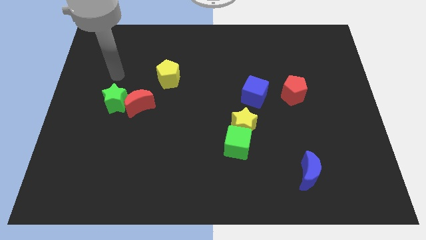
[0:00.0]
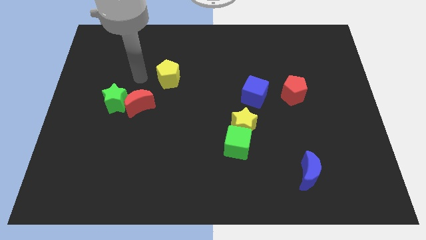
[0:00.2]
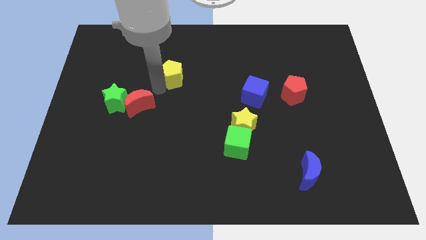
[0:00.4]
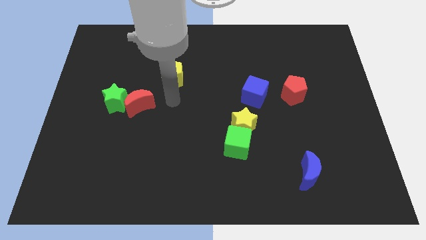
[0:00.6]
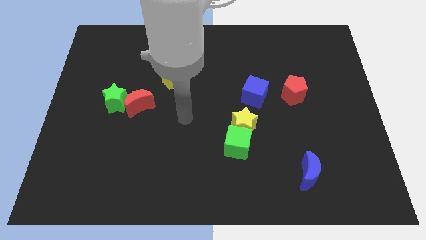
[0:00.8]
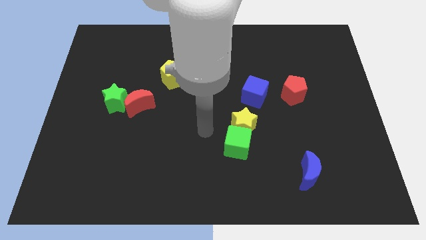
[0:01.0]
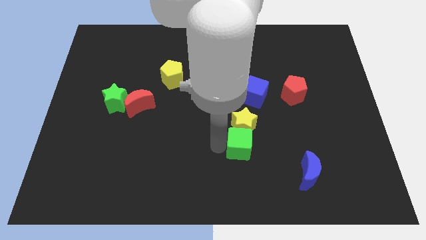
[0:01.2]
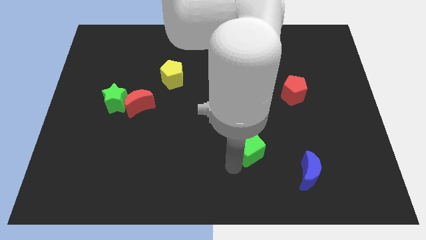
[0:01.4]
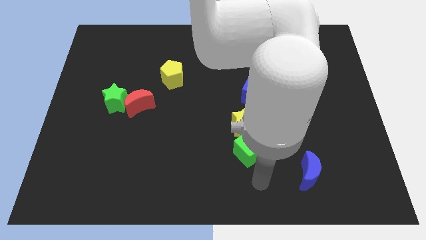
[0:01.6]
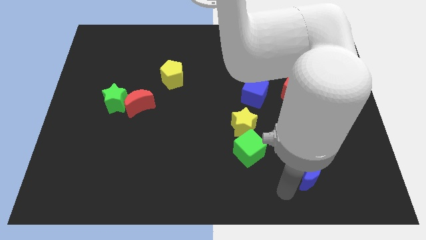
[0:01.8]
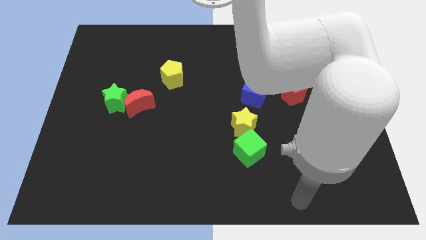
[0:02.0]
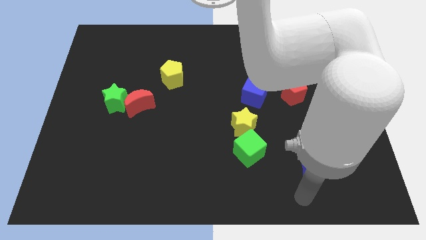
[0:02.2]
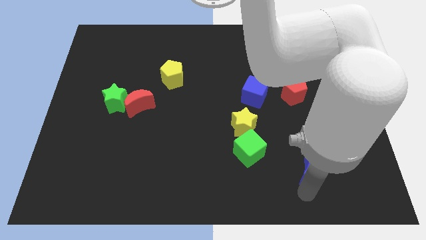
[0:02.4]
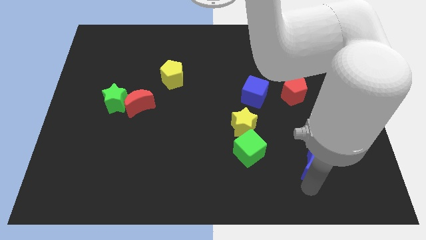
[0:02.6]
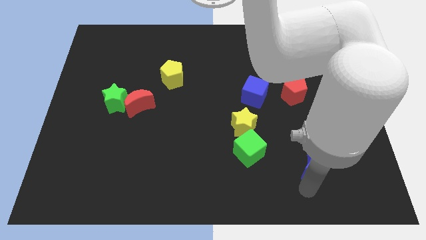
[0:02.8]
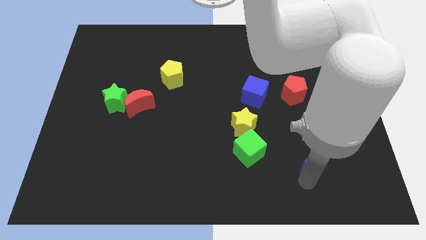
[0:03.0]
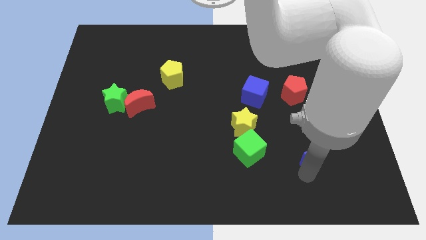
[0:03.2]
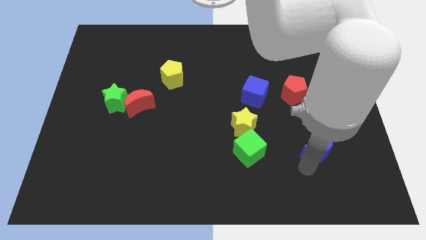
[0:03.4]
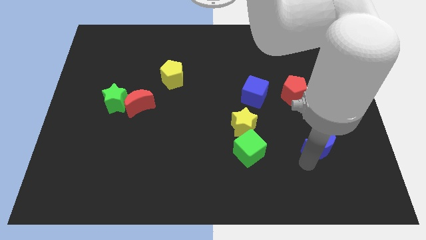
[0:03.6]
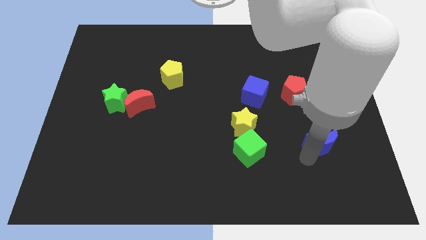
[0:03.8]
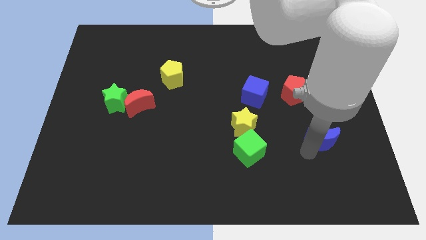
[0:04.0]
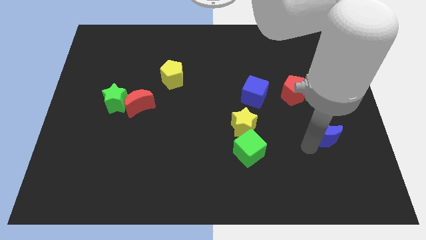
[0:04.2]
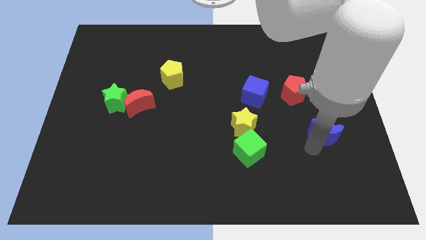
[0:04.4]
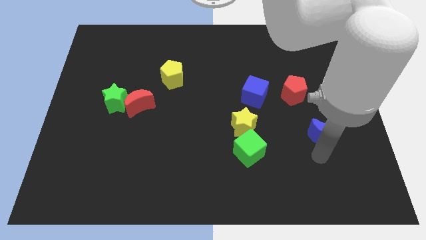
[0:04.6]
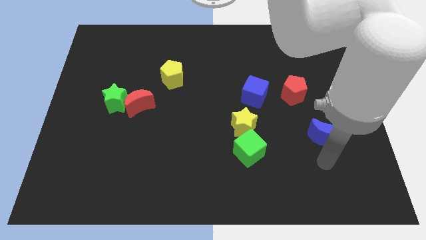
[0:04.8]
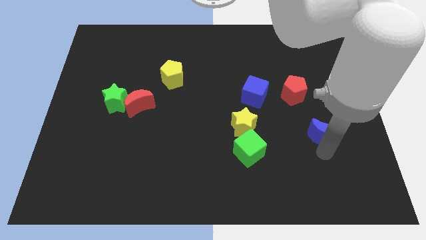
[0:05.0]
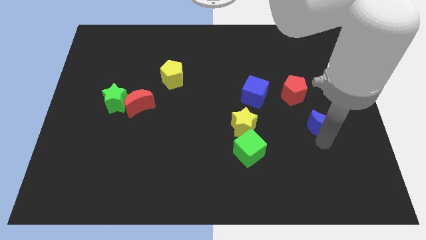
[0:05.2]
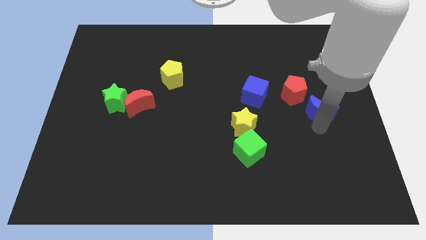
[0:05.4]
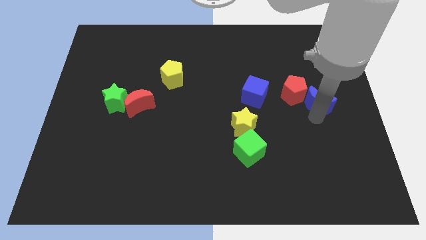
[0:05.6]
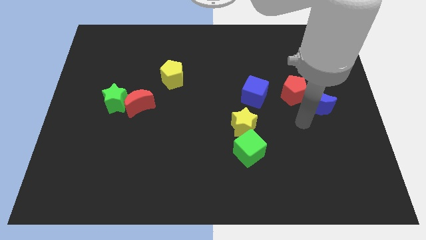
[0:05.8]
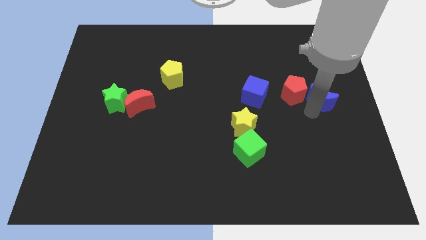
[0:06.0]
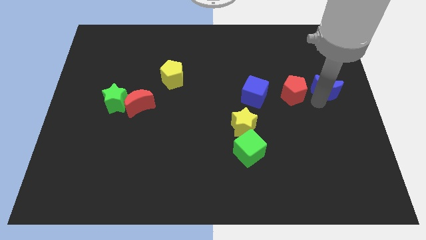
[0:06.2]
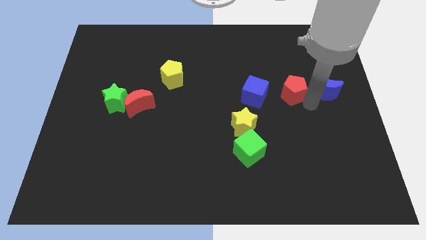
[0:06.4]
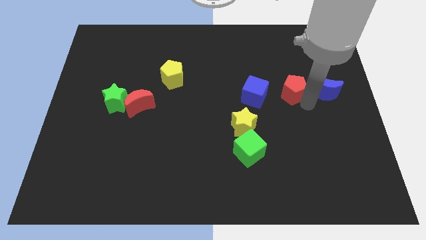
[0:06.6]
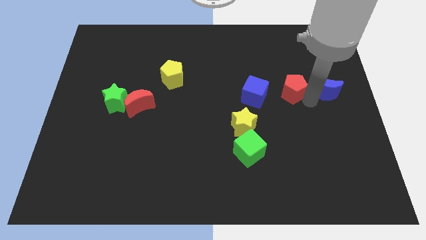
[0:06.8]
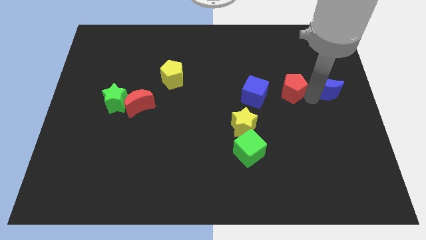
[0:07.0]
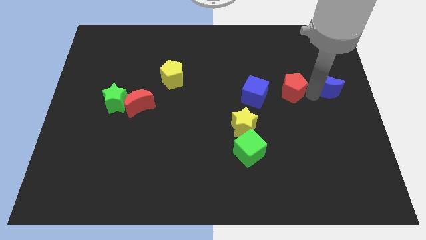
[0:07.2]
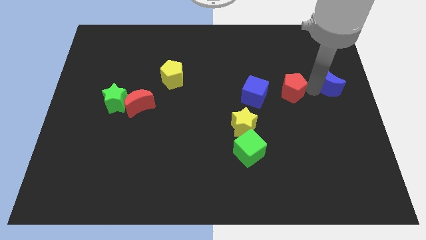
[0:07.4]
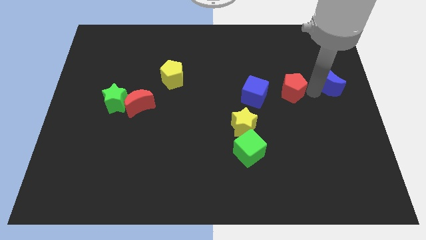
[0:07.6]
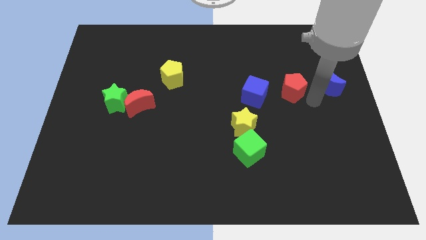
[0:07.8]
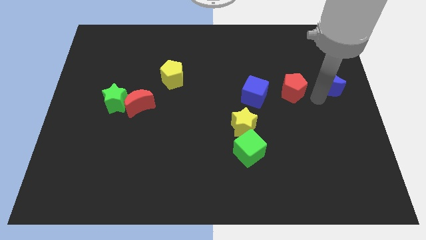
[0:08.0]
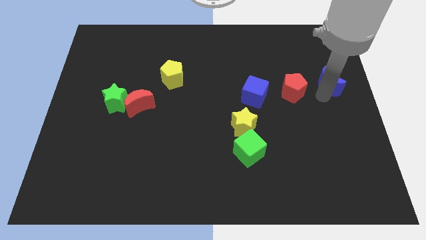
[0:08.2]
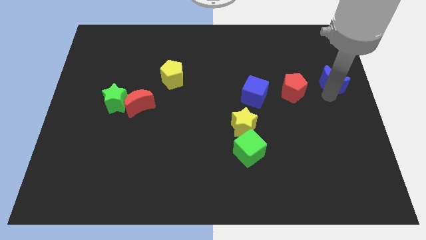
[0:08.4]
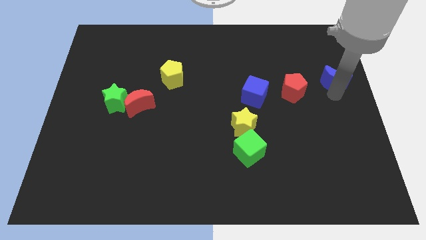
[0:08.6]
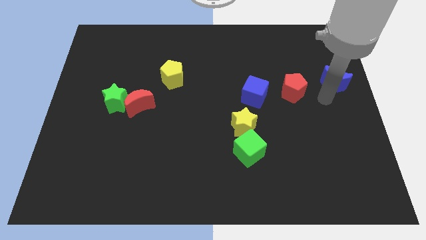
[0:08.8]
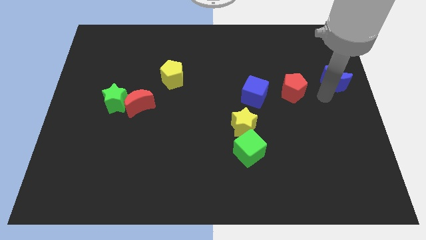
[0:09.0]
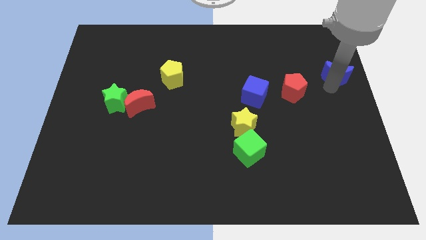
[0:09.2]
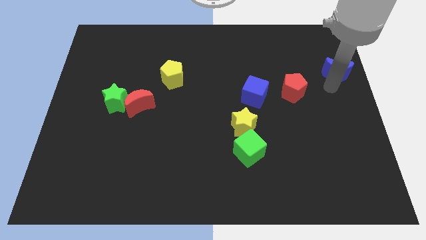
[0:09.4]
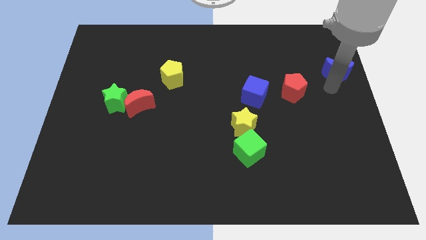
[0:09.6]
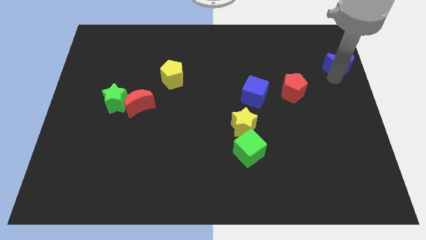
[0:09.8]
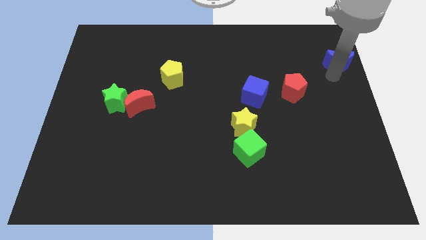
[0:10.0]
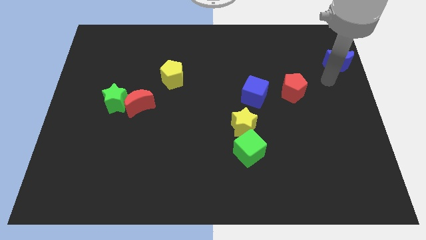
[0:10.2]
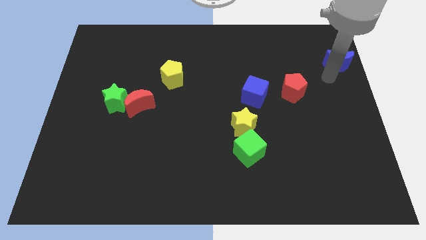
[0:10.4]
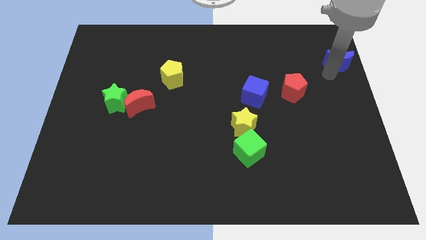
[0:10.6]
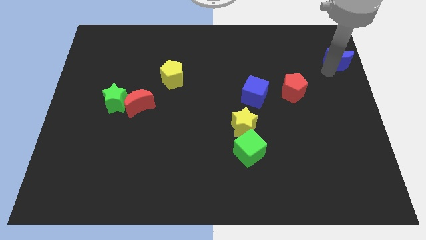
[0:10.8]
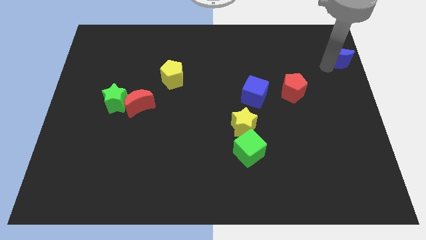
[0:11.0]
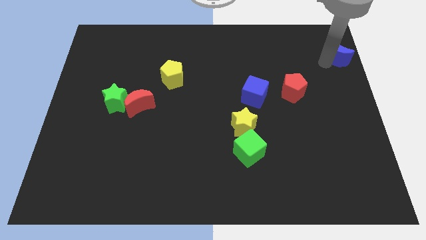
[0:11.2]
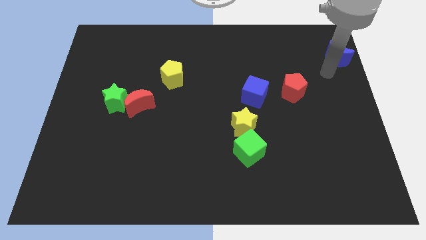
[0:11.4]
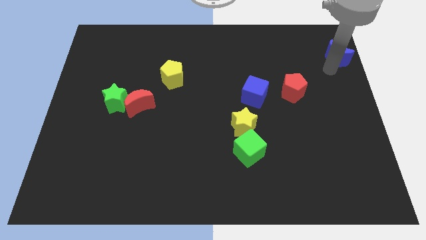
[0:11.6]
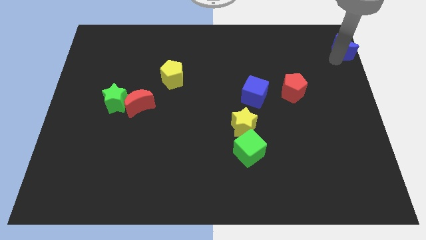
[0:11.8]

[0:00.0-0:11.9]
put the blue moon to the top right
